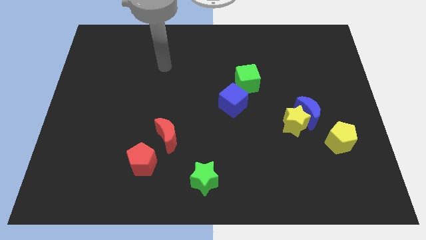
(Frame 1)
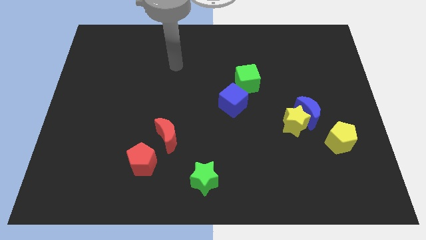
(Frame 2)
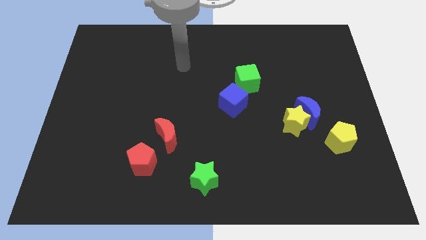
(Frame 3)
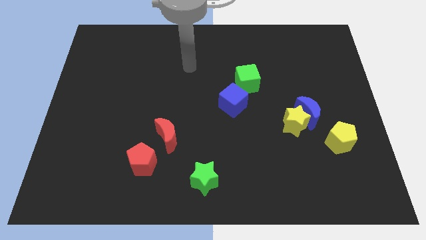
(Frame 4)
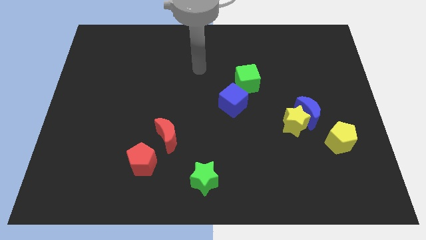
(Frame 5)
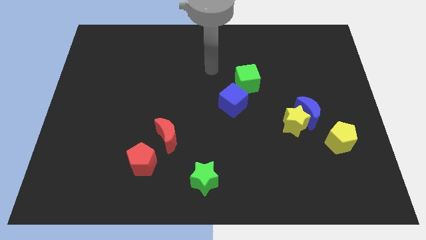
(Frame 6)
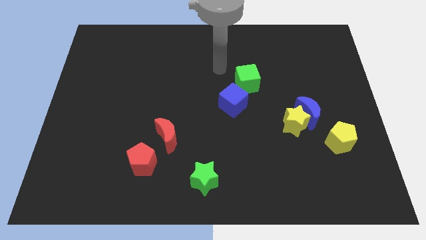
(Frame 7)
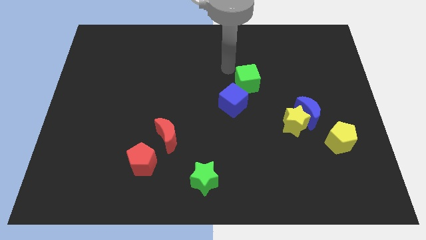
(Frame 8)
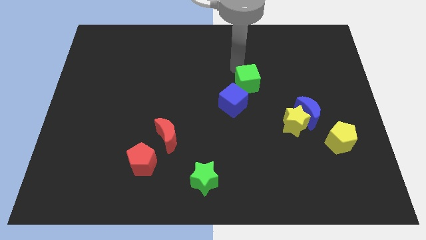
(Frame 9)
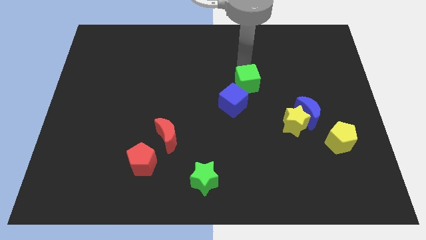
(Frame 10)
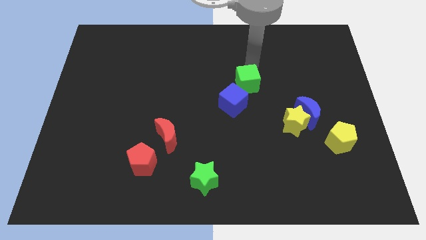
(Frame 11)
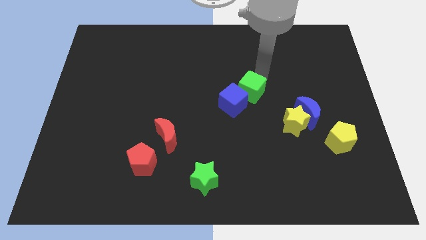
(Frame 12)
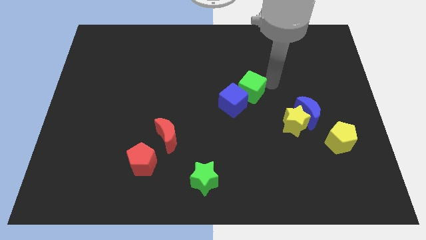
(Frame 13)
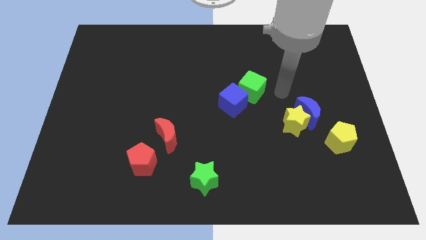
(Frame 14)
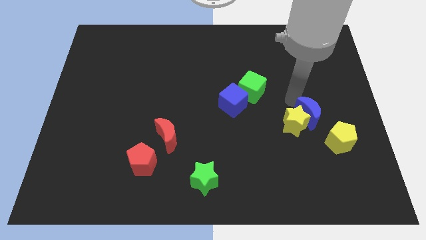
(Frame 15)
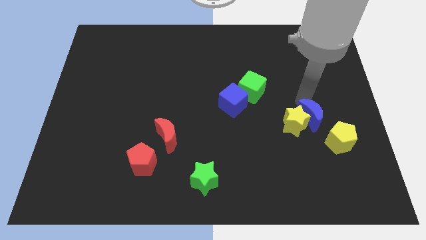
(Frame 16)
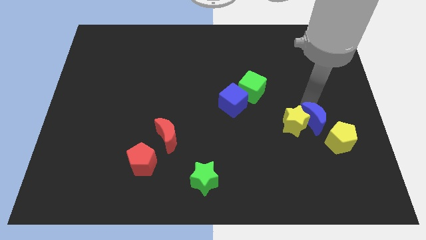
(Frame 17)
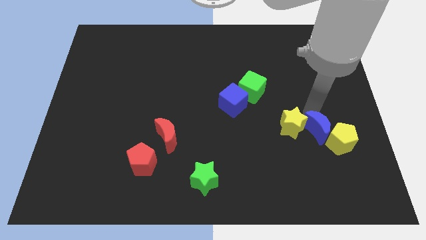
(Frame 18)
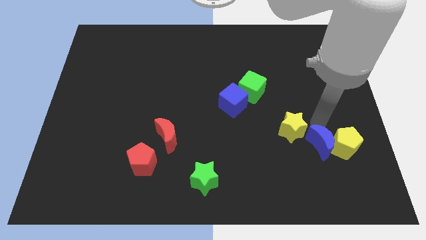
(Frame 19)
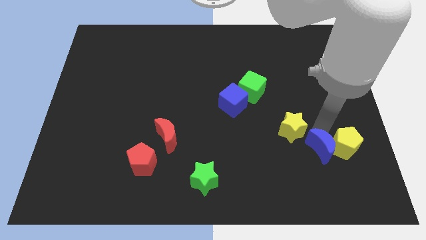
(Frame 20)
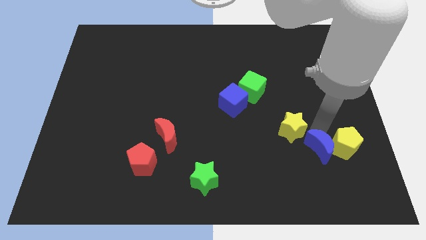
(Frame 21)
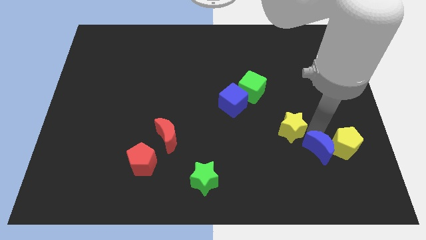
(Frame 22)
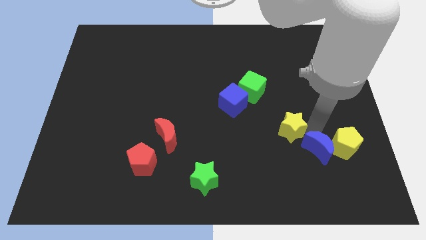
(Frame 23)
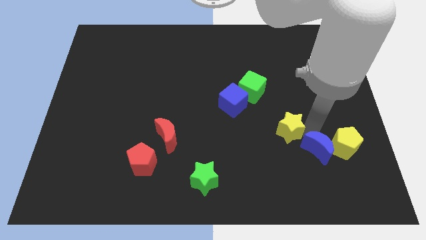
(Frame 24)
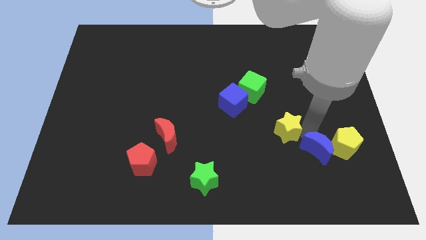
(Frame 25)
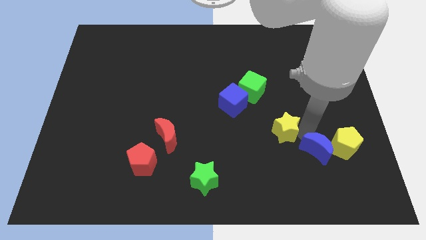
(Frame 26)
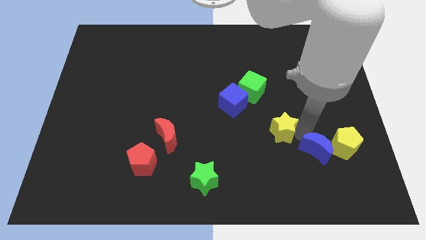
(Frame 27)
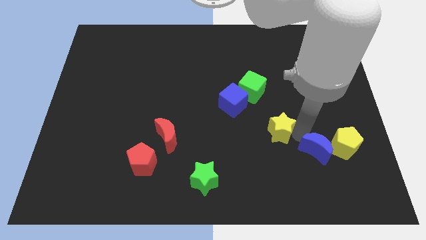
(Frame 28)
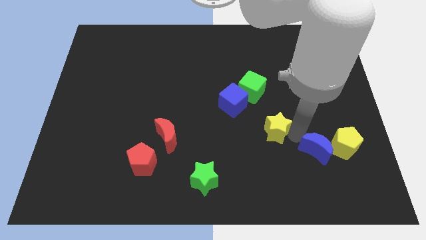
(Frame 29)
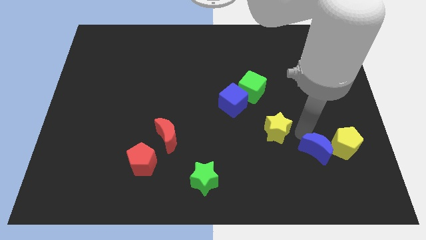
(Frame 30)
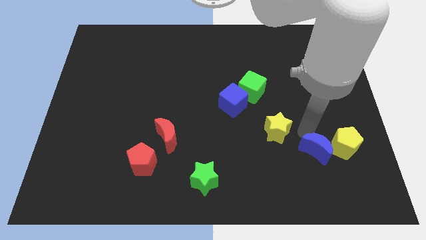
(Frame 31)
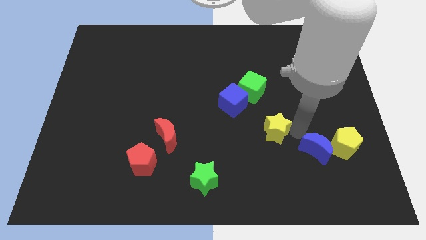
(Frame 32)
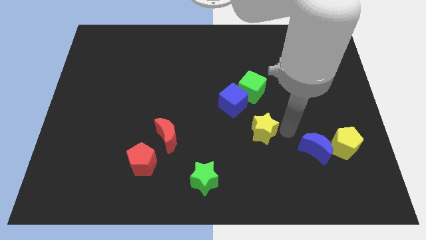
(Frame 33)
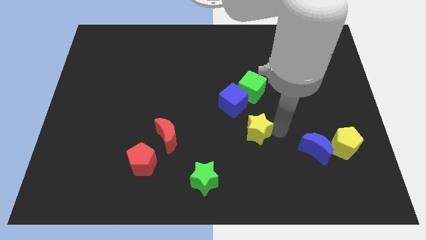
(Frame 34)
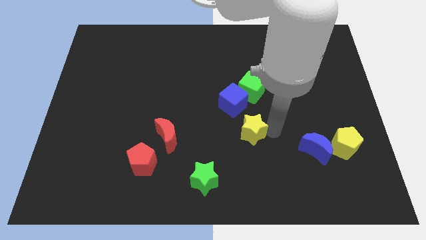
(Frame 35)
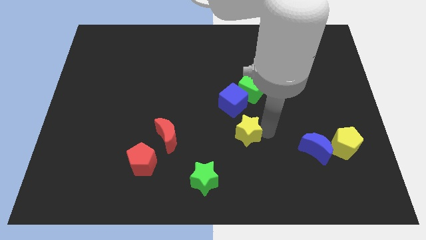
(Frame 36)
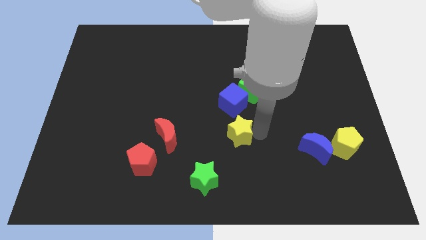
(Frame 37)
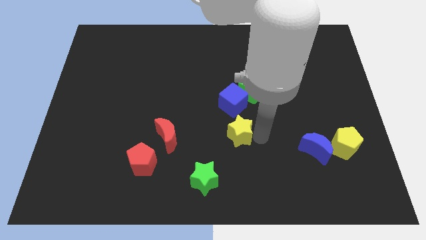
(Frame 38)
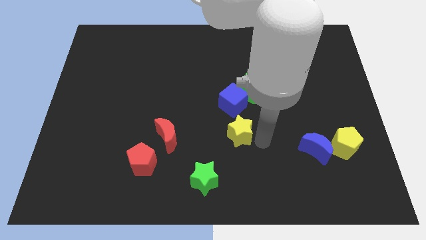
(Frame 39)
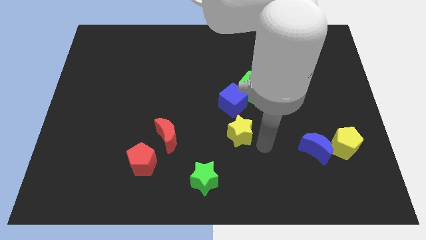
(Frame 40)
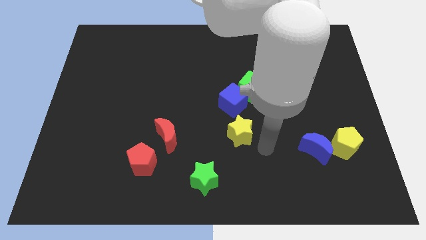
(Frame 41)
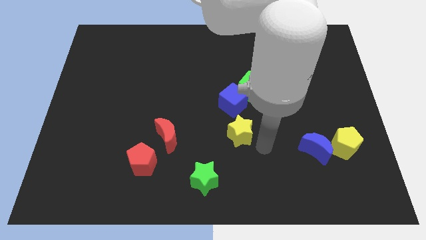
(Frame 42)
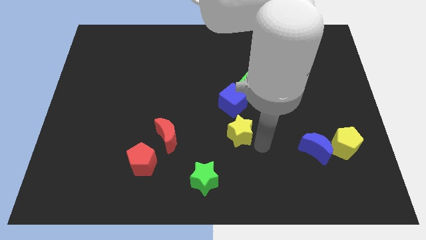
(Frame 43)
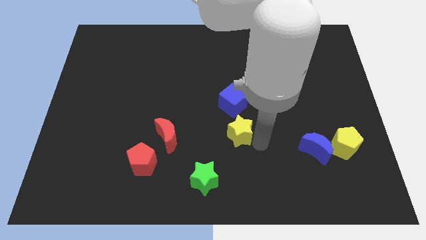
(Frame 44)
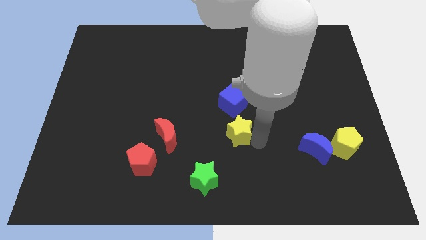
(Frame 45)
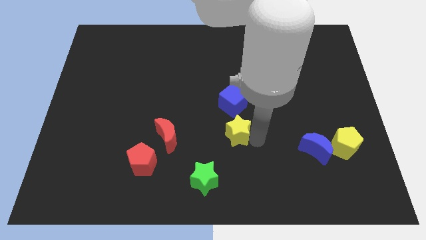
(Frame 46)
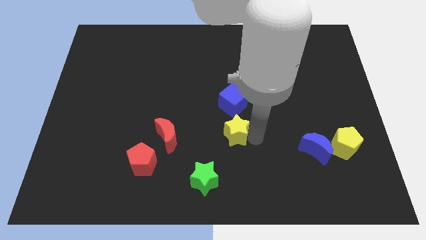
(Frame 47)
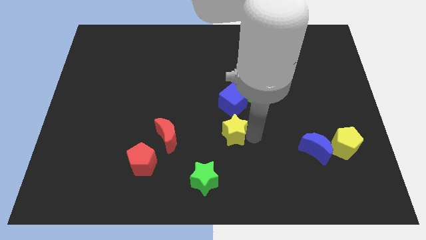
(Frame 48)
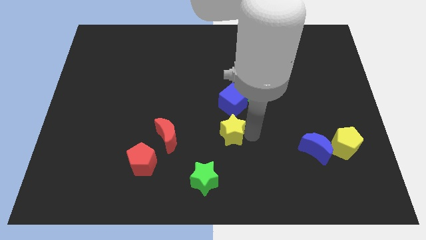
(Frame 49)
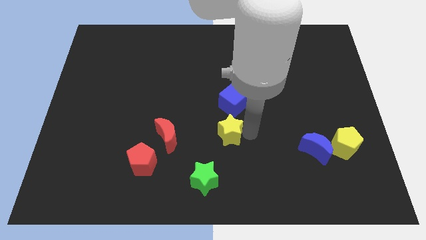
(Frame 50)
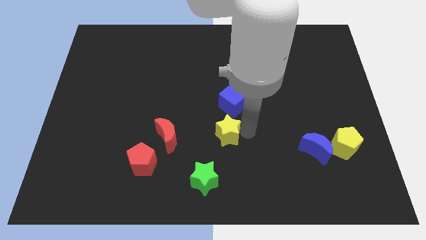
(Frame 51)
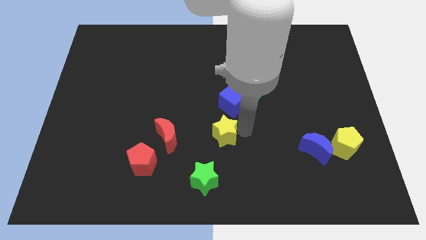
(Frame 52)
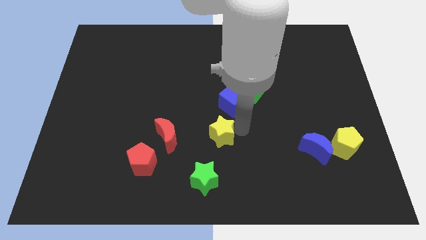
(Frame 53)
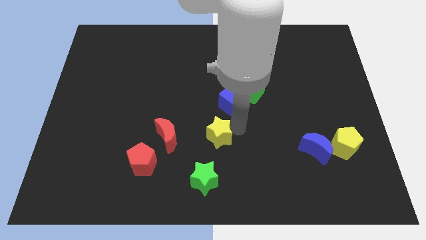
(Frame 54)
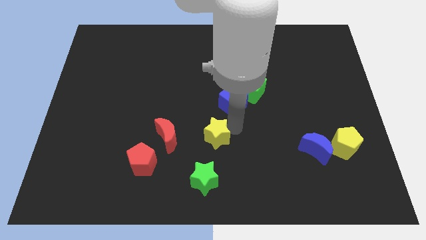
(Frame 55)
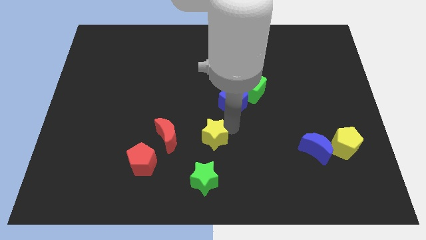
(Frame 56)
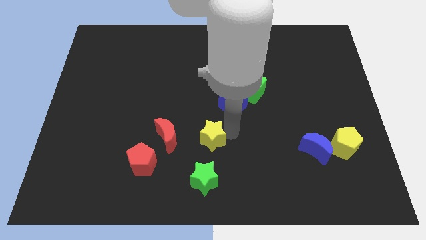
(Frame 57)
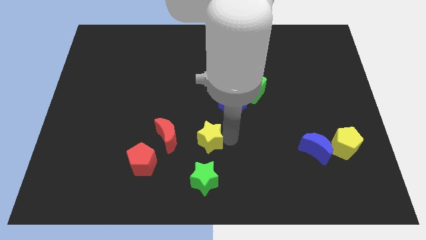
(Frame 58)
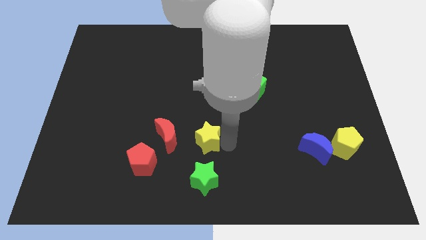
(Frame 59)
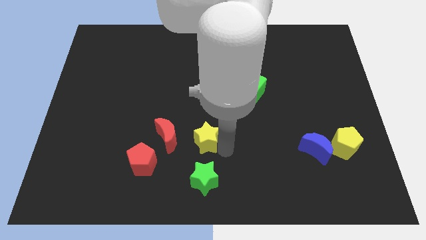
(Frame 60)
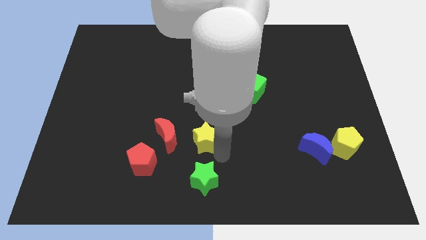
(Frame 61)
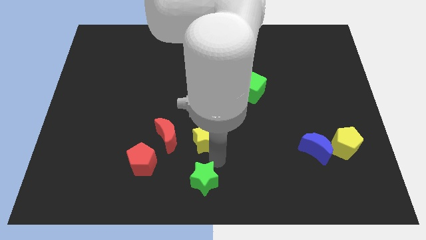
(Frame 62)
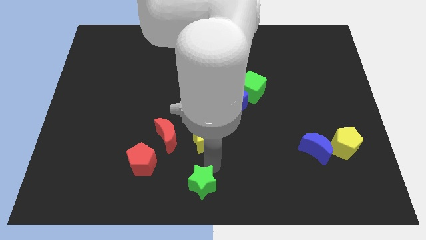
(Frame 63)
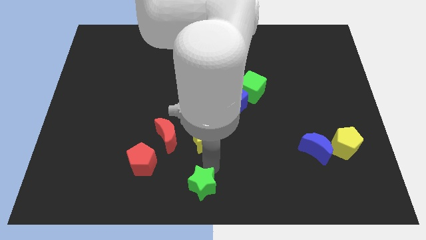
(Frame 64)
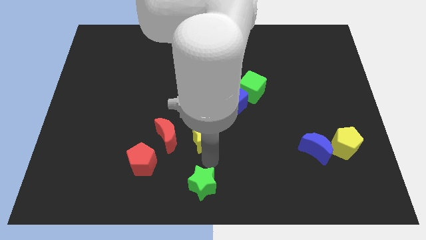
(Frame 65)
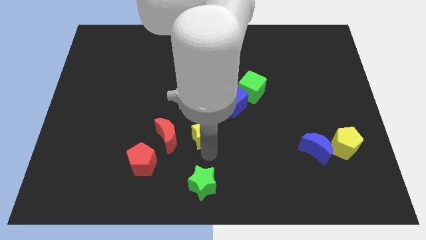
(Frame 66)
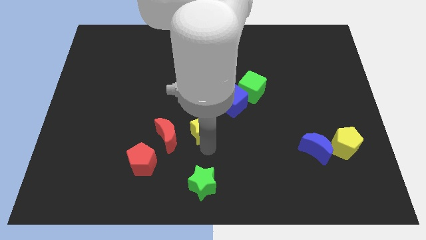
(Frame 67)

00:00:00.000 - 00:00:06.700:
push the yellow star to the left

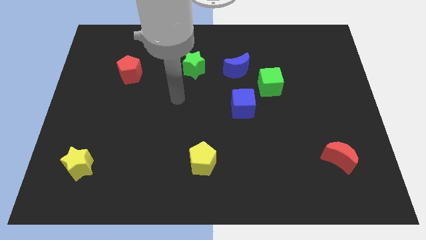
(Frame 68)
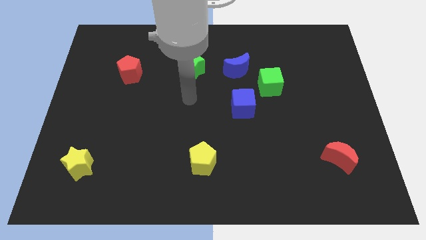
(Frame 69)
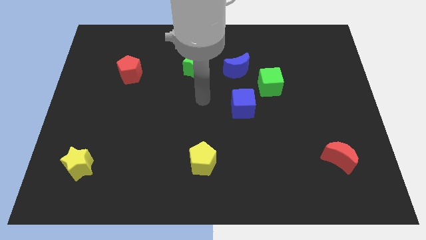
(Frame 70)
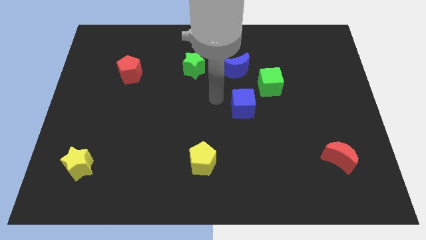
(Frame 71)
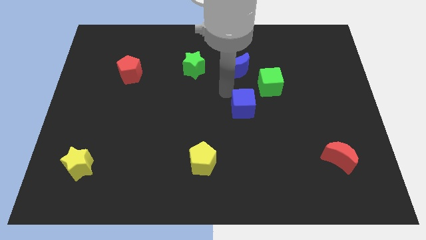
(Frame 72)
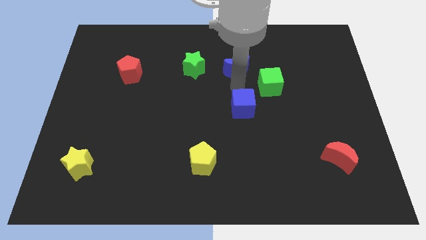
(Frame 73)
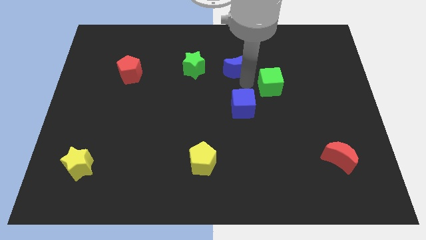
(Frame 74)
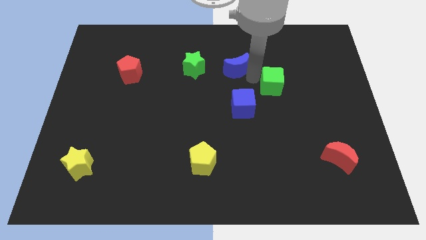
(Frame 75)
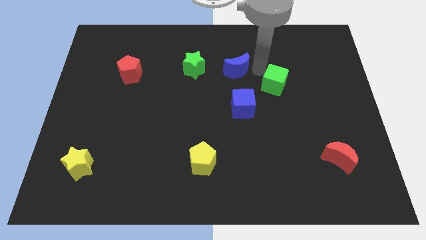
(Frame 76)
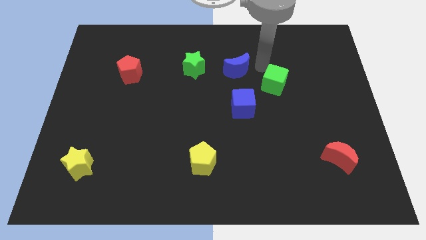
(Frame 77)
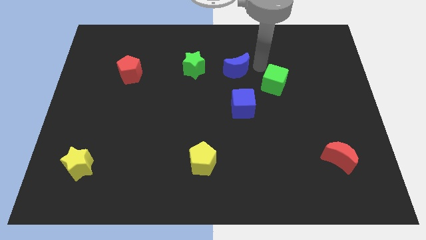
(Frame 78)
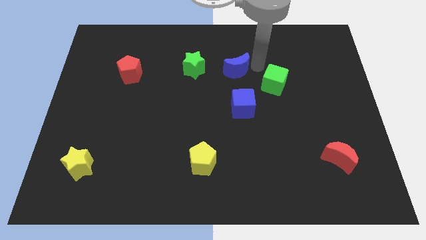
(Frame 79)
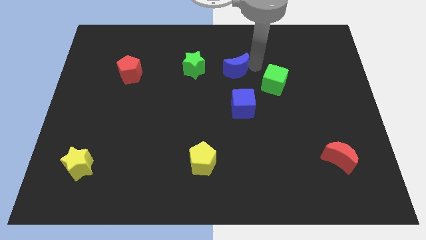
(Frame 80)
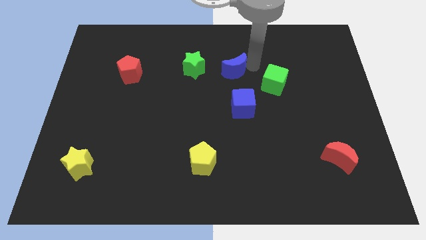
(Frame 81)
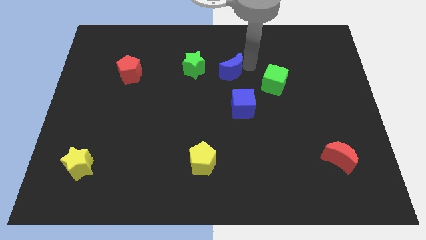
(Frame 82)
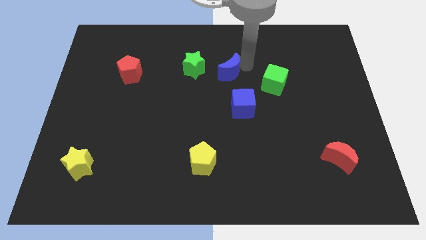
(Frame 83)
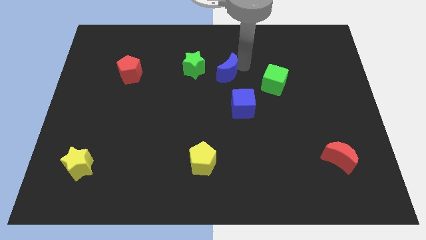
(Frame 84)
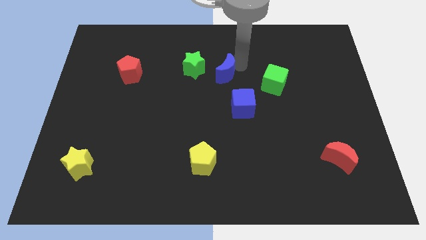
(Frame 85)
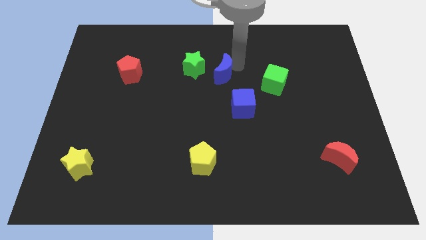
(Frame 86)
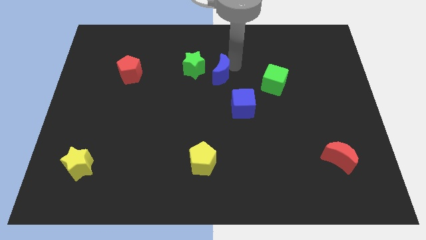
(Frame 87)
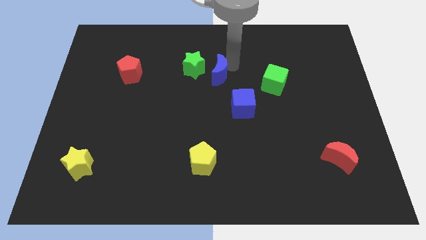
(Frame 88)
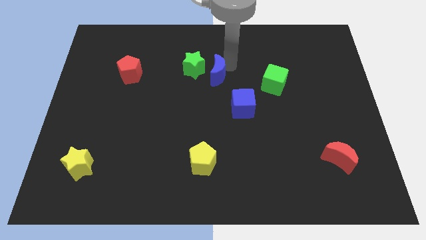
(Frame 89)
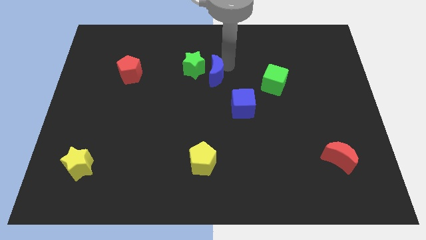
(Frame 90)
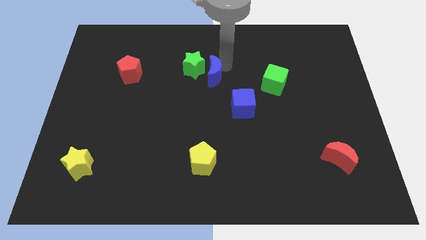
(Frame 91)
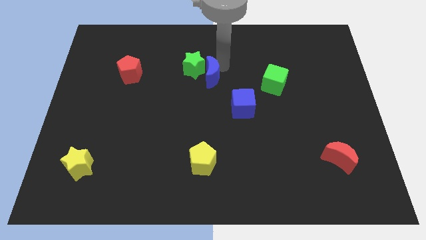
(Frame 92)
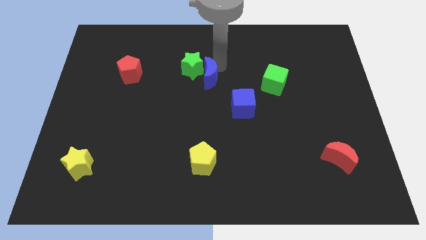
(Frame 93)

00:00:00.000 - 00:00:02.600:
push the blue moon left a bit
